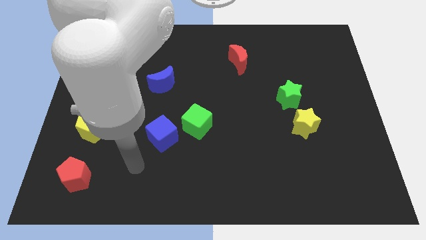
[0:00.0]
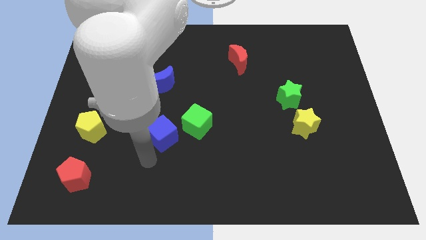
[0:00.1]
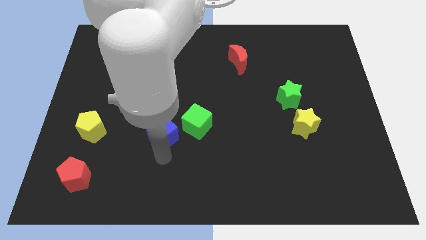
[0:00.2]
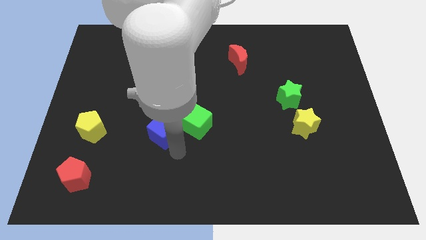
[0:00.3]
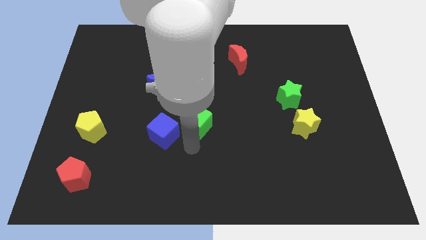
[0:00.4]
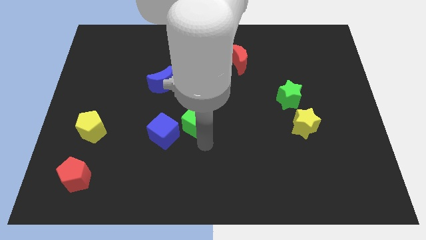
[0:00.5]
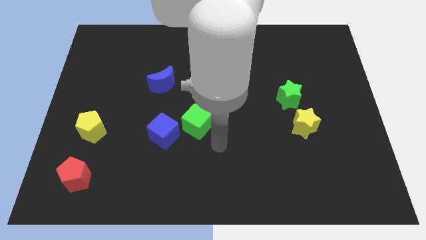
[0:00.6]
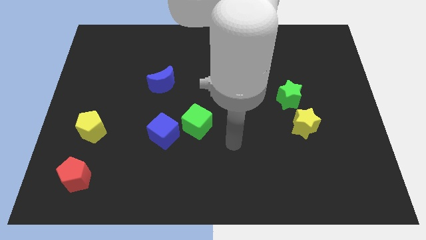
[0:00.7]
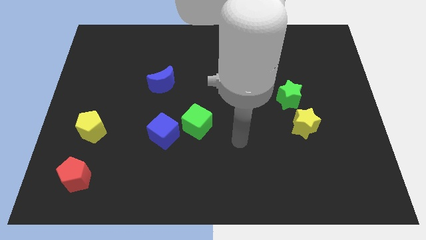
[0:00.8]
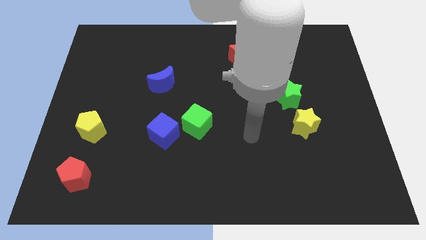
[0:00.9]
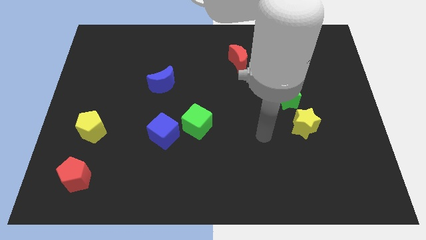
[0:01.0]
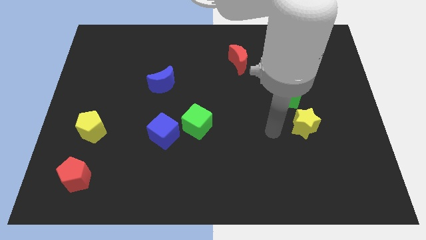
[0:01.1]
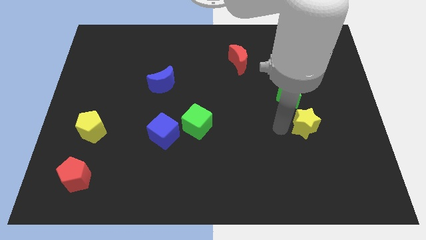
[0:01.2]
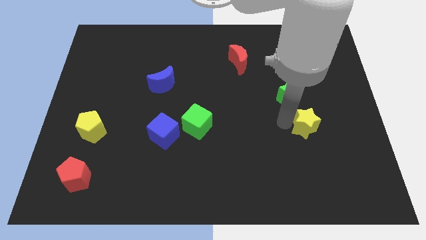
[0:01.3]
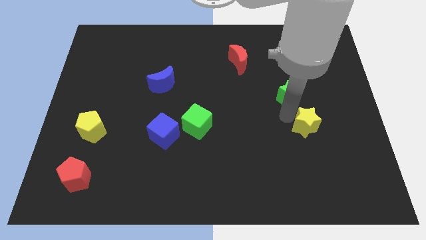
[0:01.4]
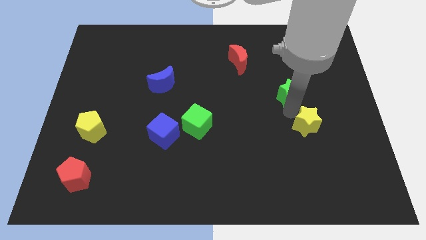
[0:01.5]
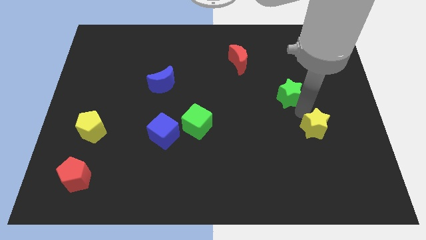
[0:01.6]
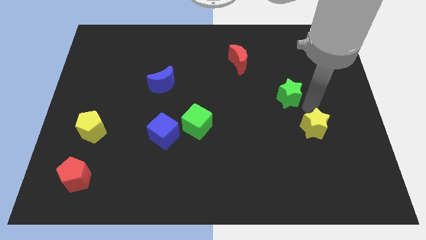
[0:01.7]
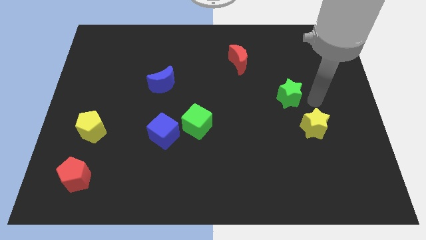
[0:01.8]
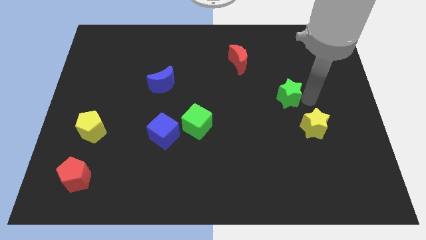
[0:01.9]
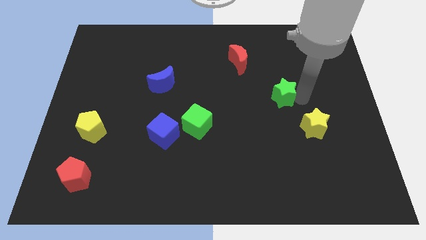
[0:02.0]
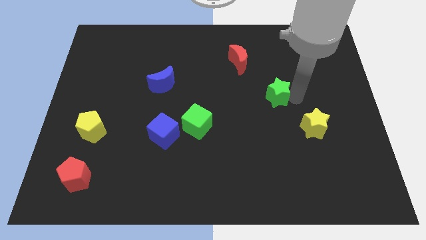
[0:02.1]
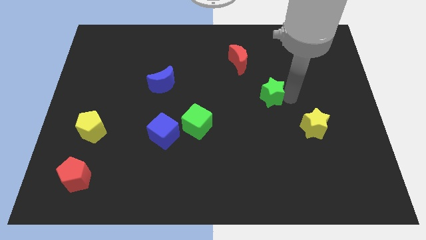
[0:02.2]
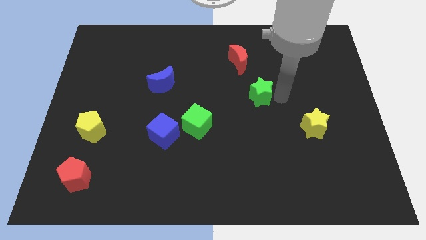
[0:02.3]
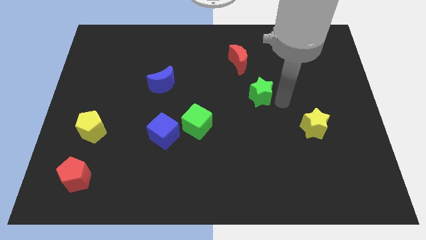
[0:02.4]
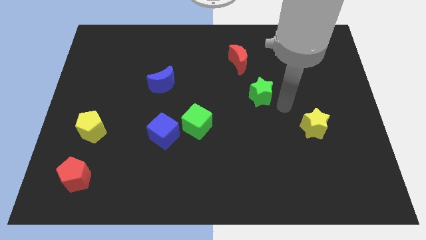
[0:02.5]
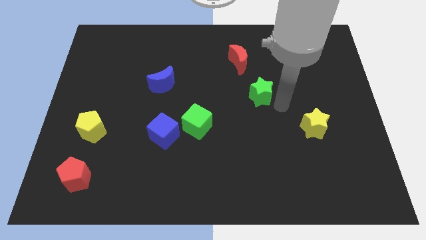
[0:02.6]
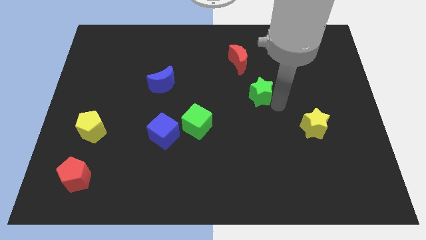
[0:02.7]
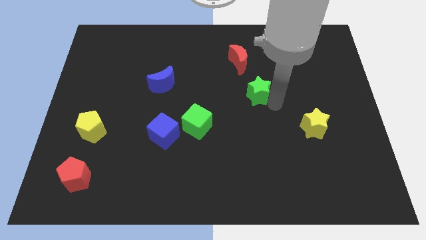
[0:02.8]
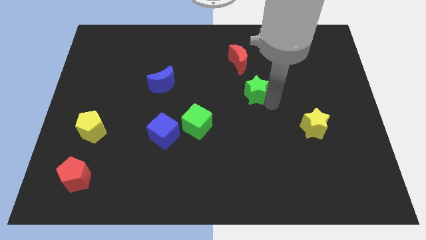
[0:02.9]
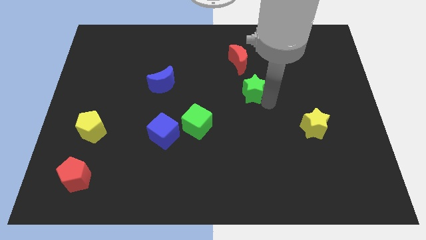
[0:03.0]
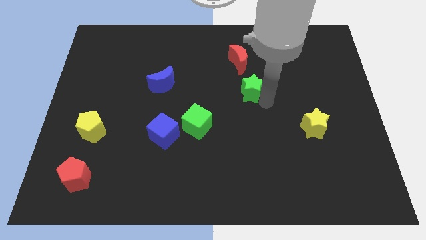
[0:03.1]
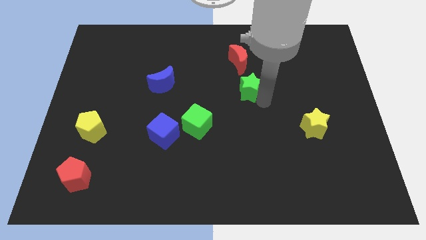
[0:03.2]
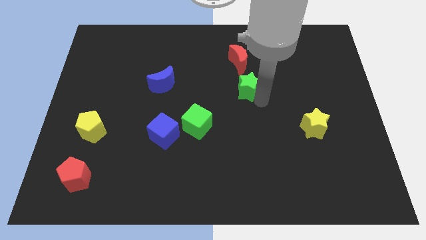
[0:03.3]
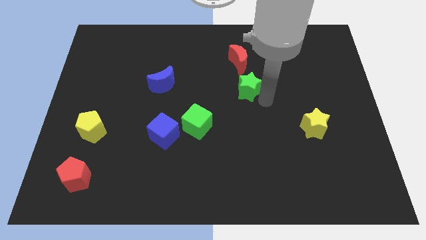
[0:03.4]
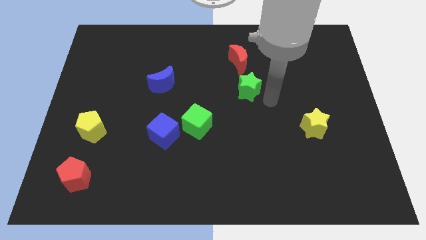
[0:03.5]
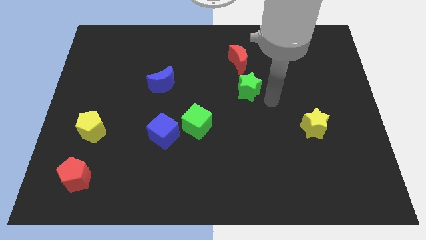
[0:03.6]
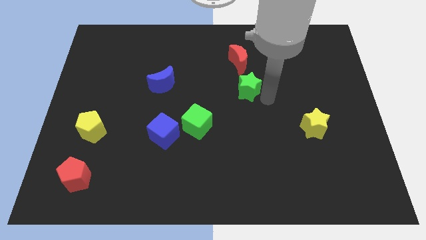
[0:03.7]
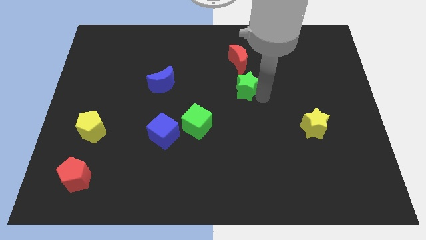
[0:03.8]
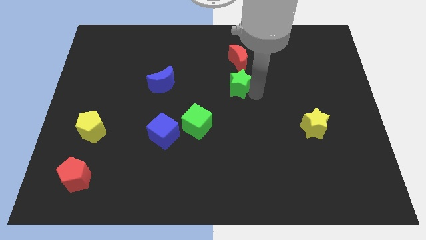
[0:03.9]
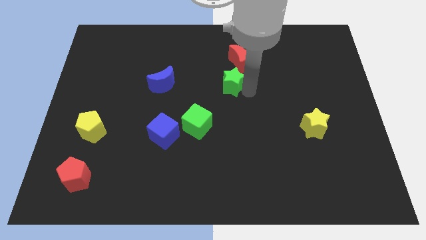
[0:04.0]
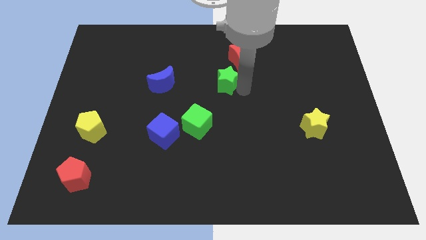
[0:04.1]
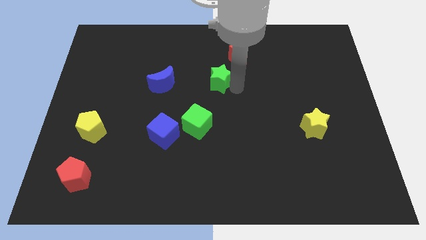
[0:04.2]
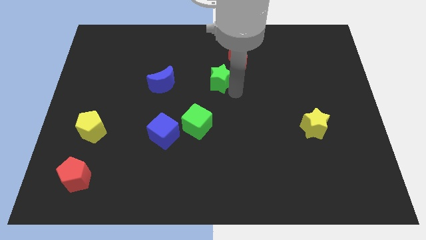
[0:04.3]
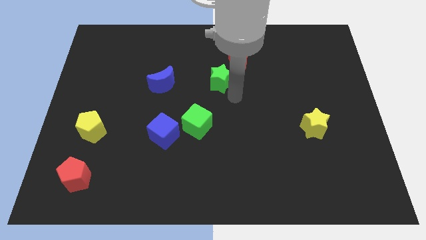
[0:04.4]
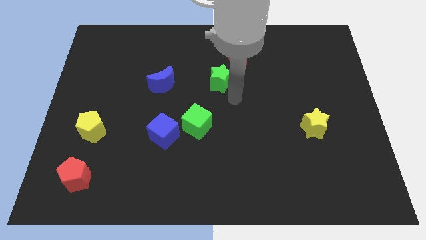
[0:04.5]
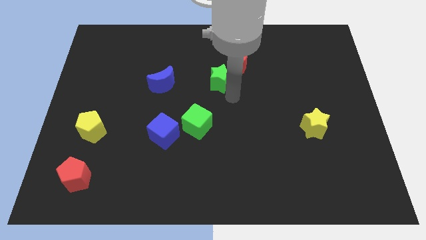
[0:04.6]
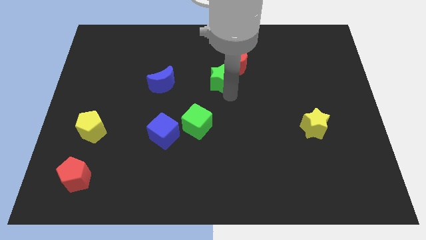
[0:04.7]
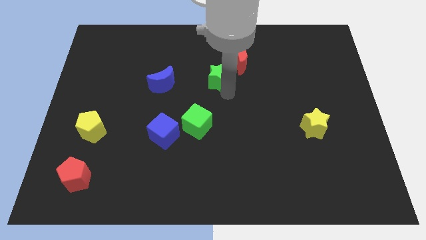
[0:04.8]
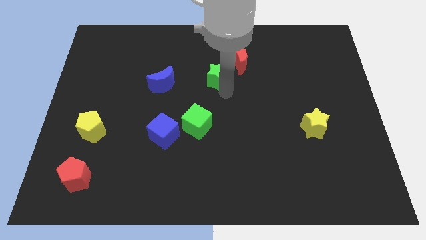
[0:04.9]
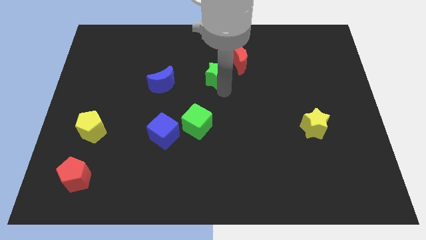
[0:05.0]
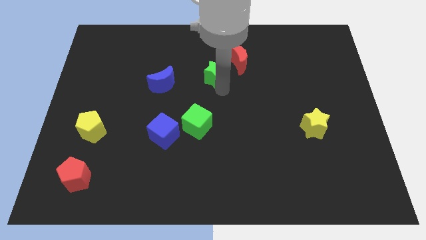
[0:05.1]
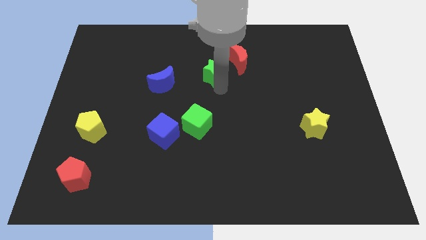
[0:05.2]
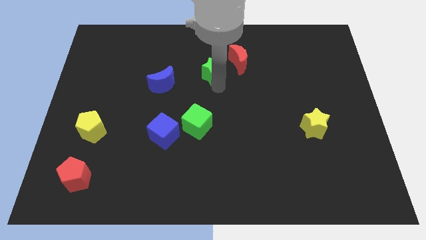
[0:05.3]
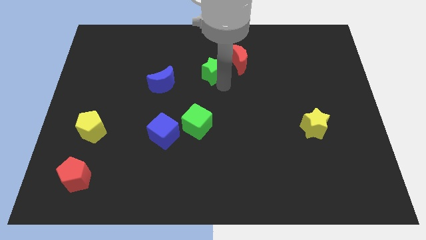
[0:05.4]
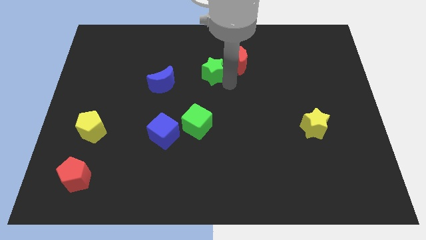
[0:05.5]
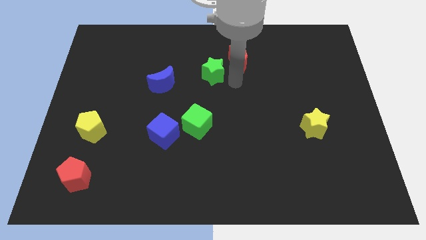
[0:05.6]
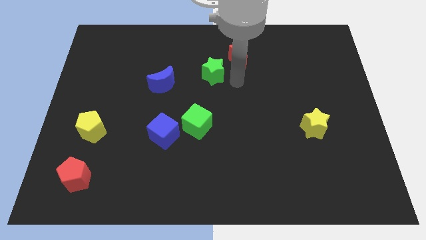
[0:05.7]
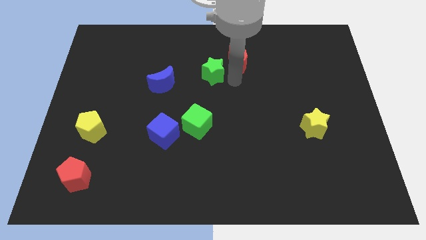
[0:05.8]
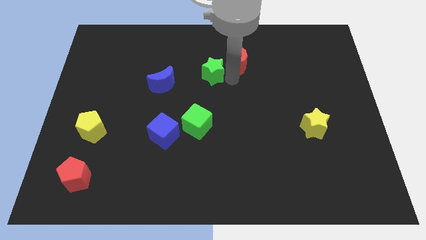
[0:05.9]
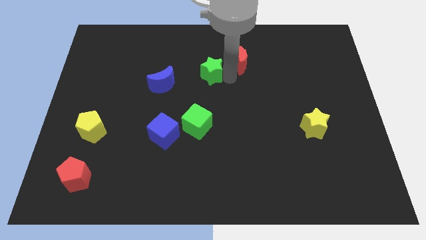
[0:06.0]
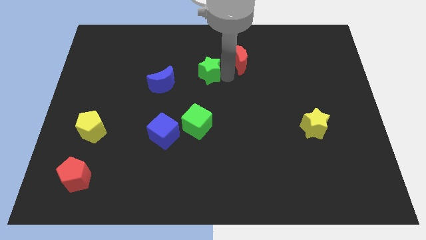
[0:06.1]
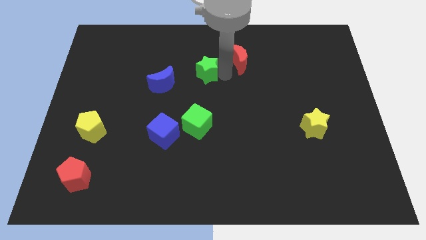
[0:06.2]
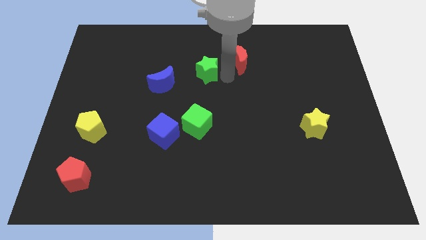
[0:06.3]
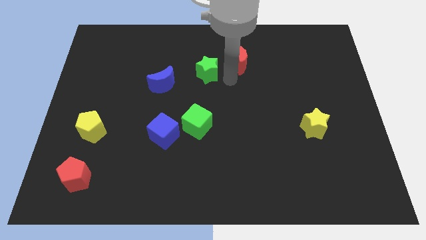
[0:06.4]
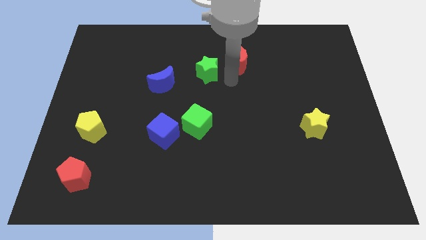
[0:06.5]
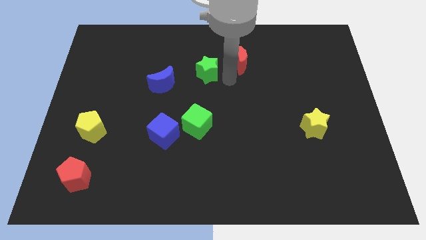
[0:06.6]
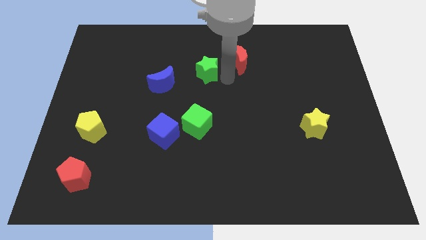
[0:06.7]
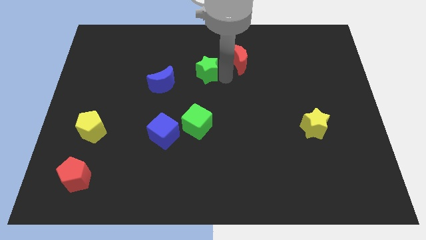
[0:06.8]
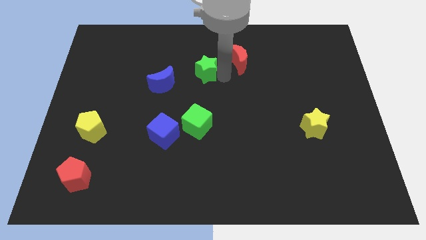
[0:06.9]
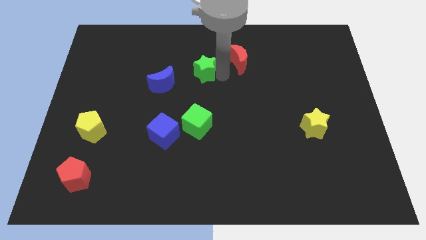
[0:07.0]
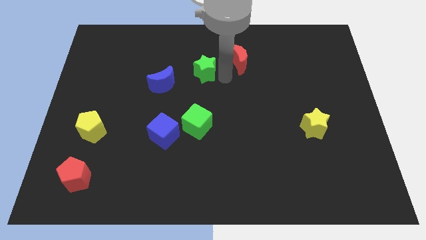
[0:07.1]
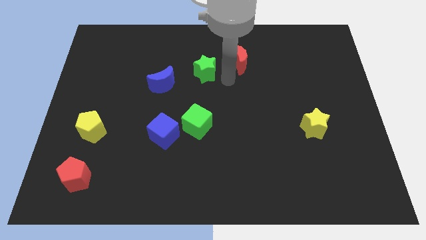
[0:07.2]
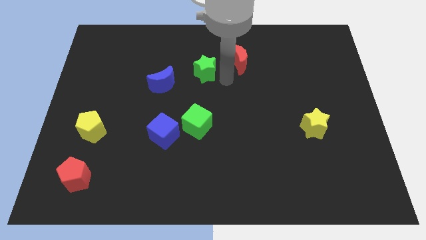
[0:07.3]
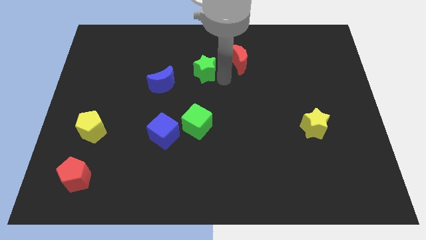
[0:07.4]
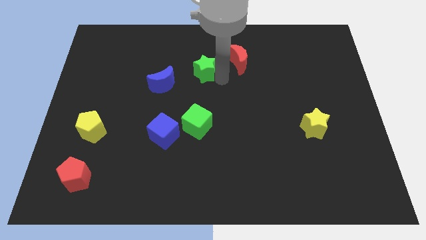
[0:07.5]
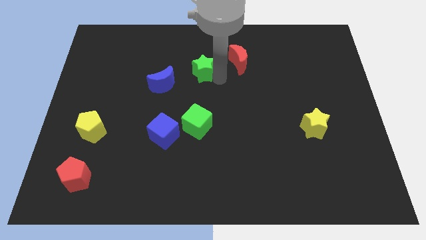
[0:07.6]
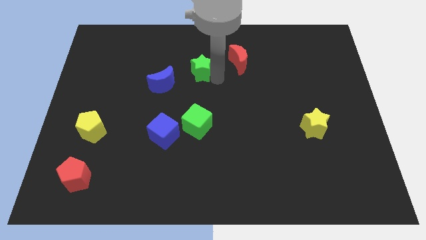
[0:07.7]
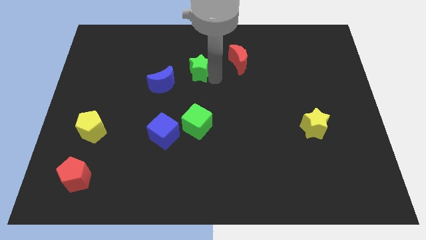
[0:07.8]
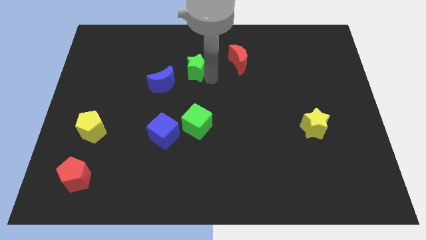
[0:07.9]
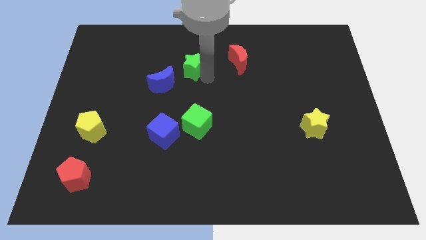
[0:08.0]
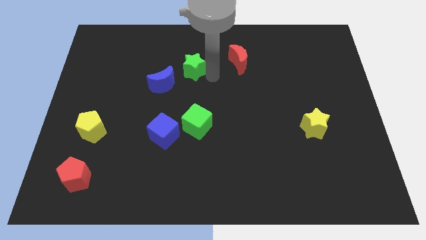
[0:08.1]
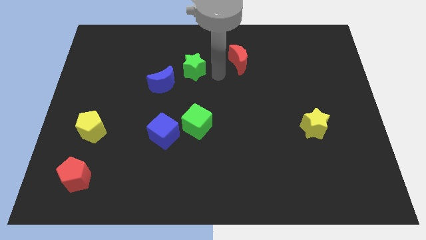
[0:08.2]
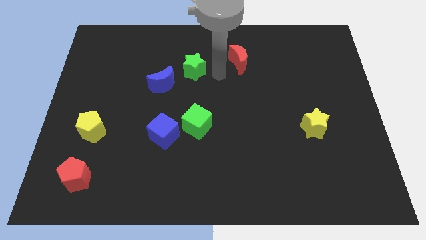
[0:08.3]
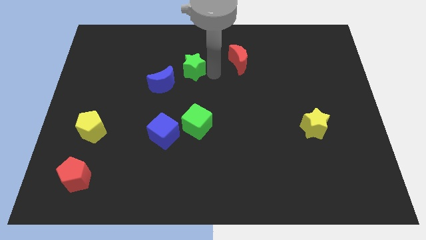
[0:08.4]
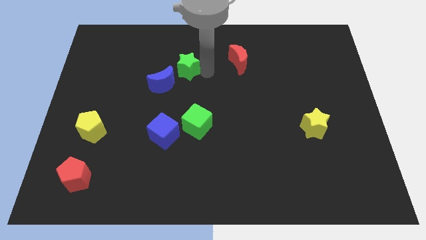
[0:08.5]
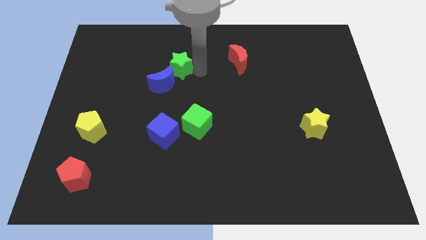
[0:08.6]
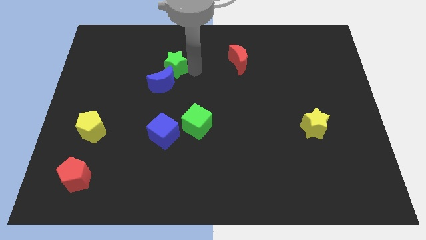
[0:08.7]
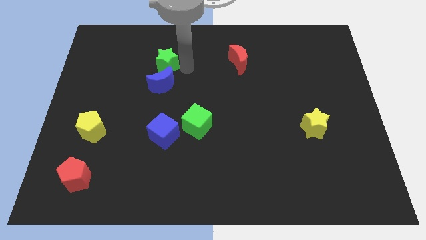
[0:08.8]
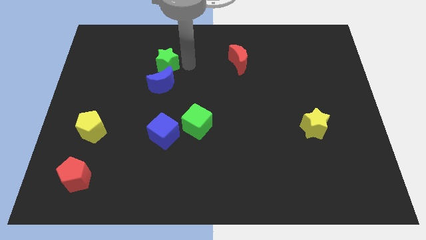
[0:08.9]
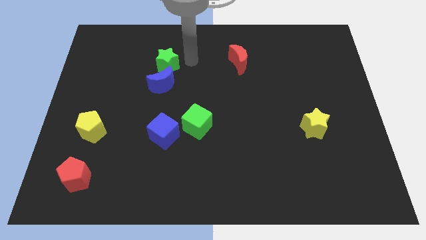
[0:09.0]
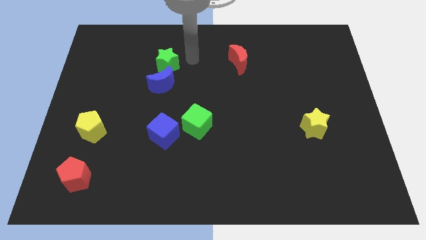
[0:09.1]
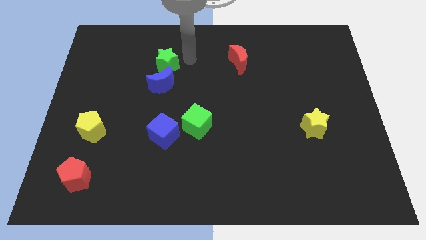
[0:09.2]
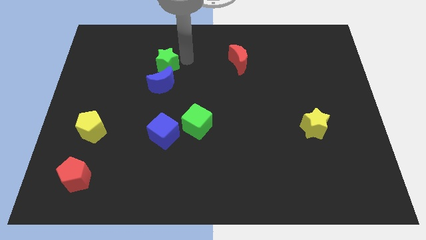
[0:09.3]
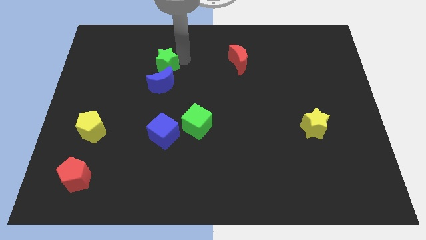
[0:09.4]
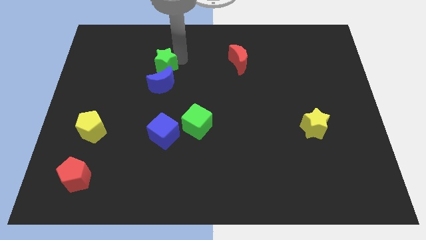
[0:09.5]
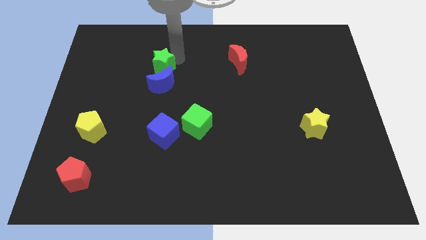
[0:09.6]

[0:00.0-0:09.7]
slide the green star diagonally up and to the left of the blue moon
